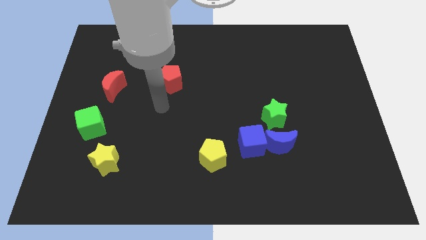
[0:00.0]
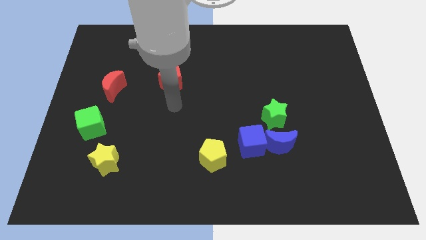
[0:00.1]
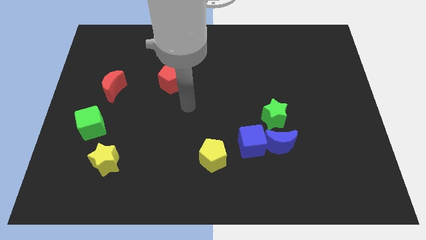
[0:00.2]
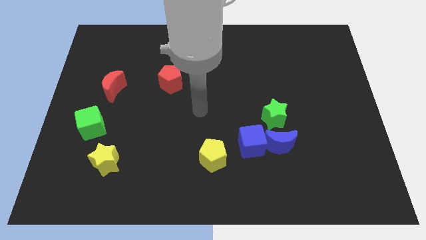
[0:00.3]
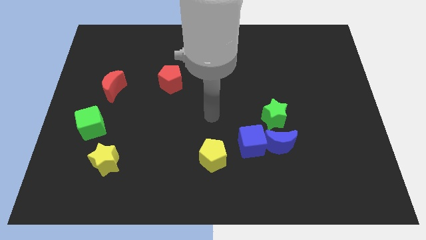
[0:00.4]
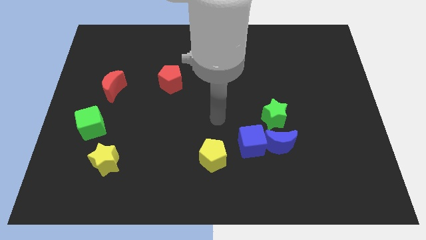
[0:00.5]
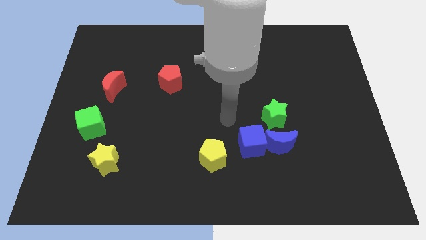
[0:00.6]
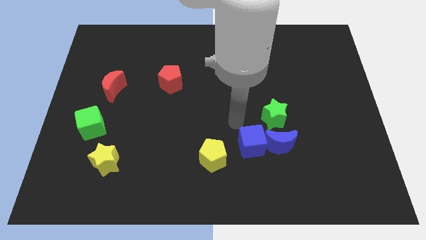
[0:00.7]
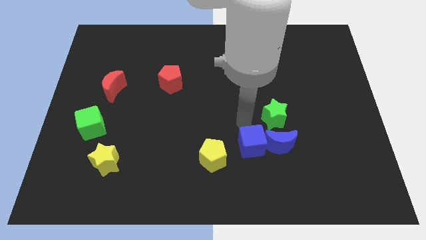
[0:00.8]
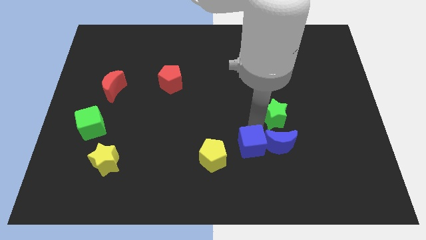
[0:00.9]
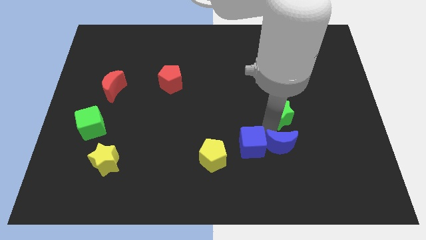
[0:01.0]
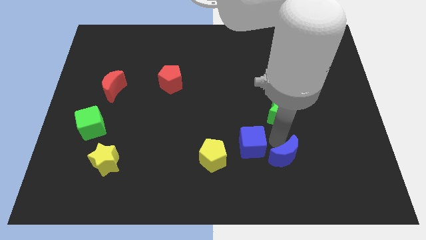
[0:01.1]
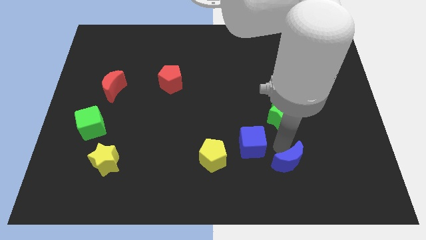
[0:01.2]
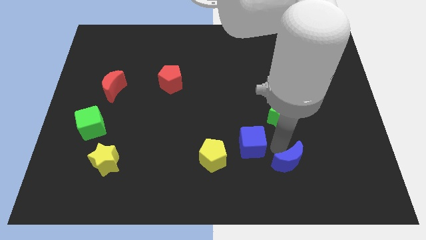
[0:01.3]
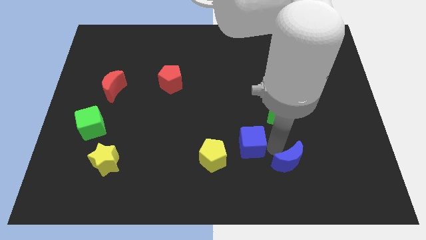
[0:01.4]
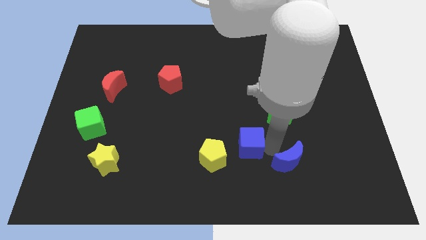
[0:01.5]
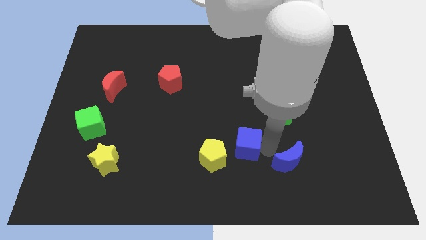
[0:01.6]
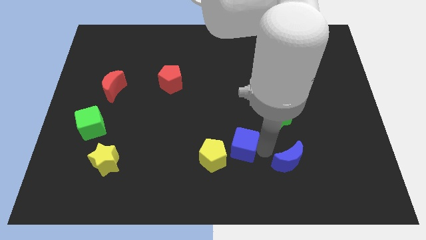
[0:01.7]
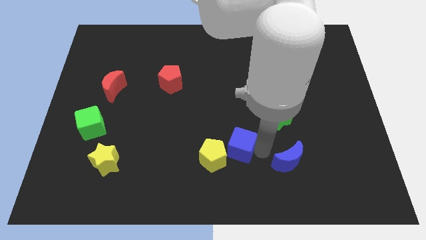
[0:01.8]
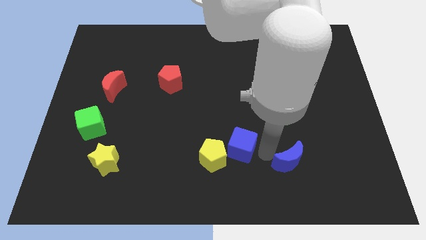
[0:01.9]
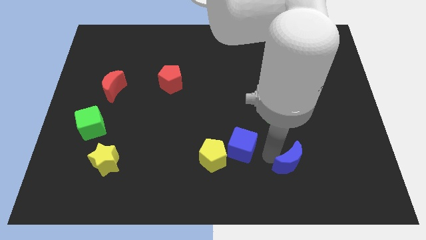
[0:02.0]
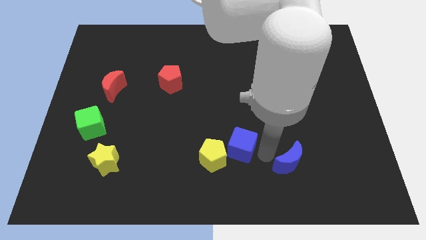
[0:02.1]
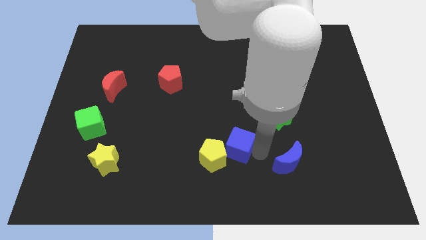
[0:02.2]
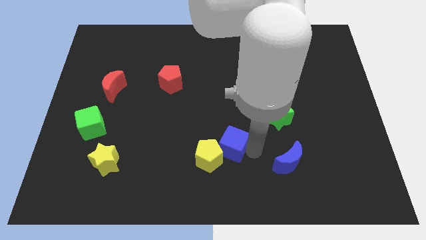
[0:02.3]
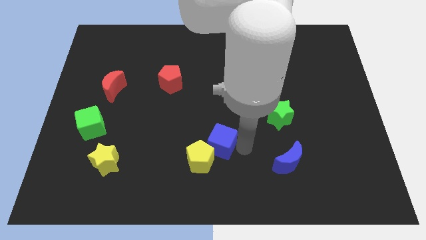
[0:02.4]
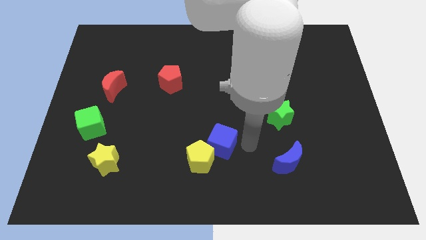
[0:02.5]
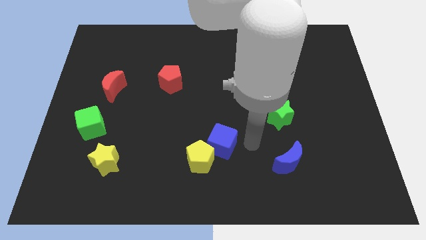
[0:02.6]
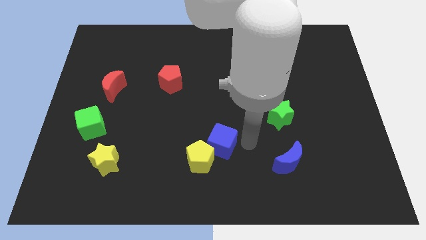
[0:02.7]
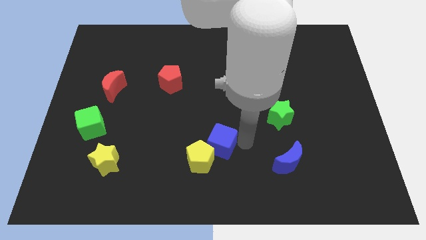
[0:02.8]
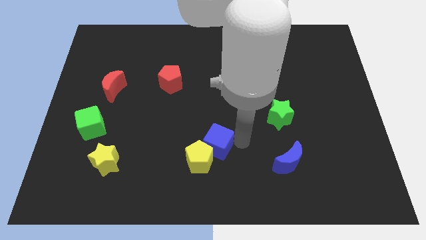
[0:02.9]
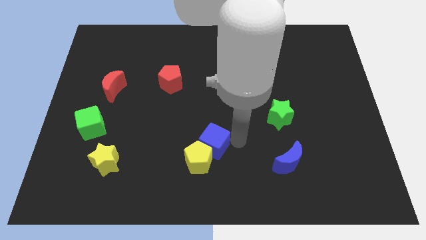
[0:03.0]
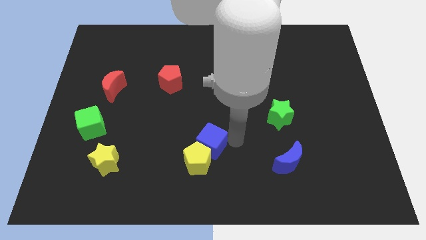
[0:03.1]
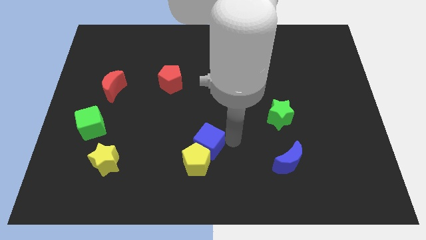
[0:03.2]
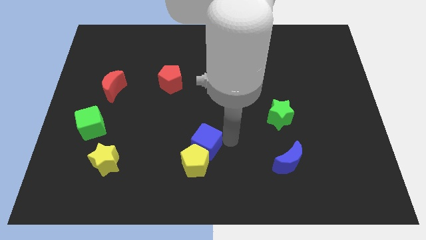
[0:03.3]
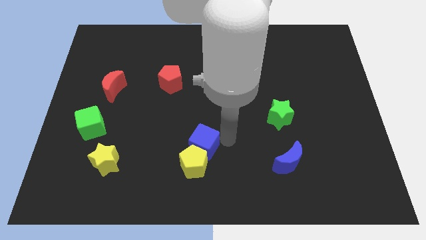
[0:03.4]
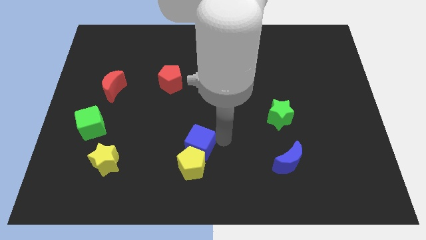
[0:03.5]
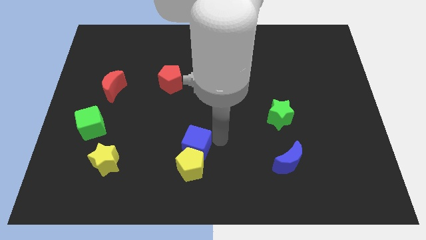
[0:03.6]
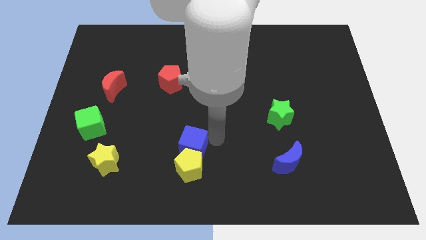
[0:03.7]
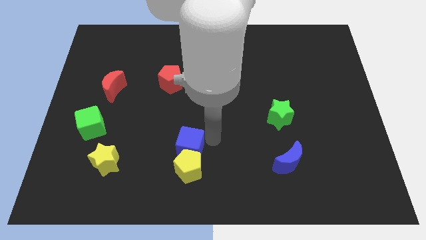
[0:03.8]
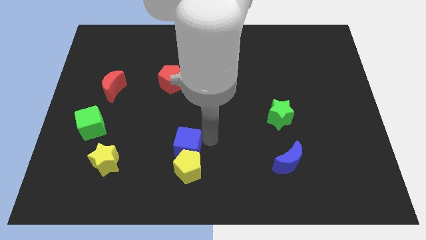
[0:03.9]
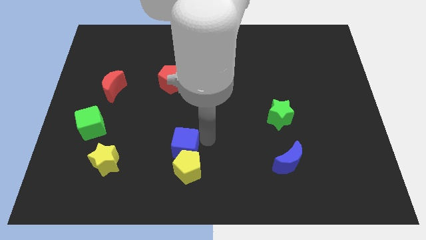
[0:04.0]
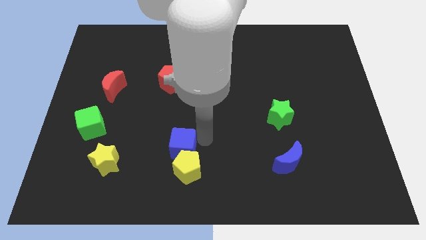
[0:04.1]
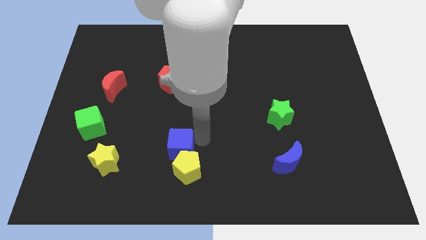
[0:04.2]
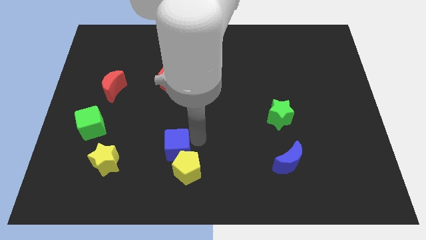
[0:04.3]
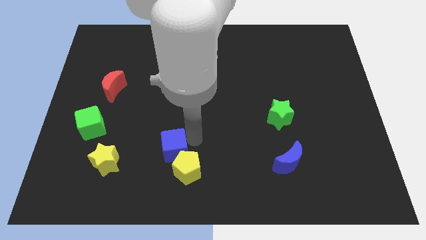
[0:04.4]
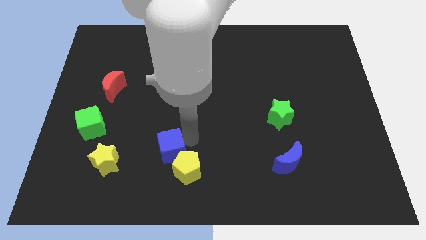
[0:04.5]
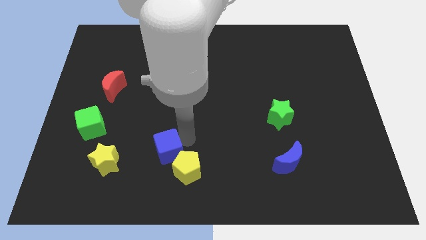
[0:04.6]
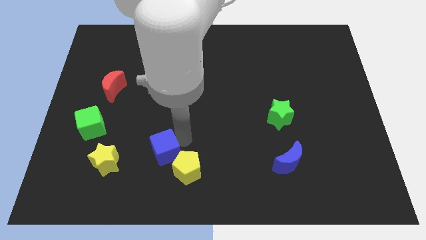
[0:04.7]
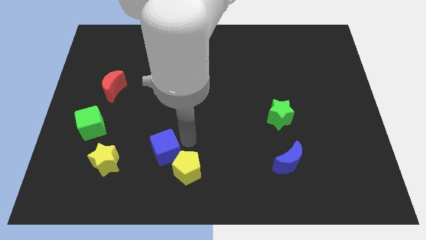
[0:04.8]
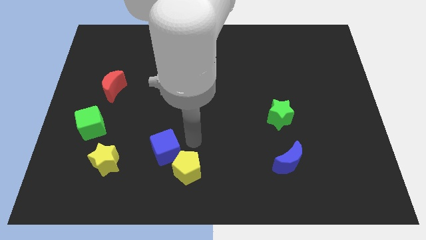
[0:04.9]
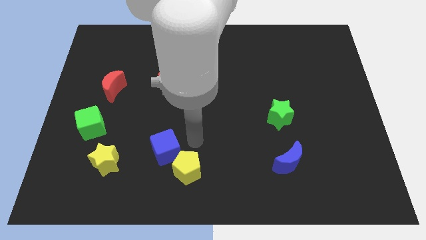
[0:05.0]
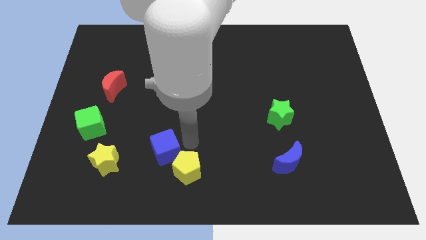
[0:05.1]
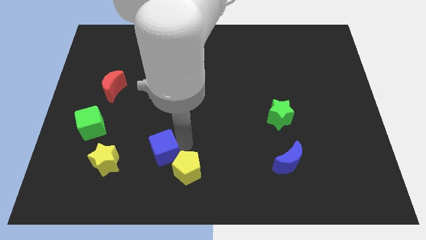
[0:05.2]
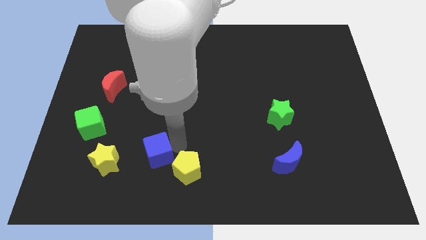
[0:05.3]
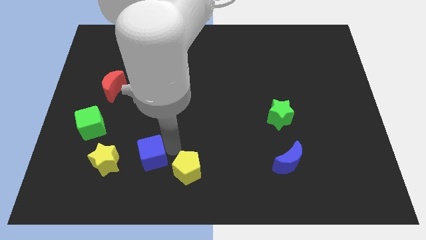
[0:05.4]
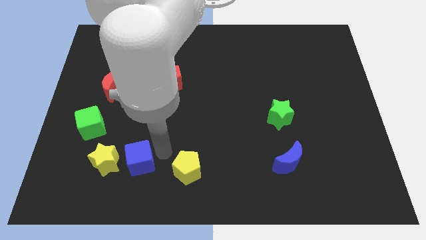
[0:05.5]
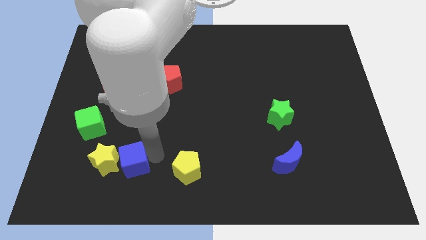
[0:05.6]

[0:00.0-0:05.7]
push the blue cube to the yellow star

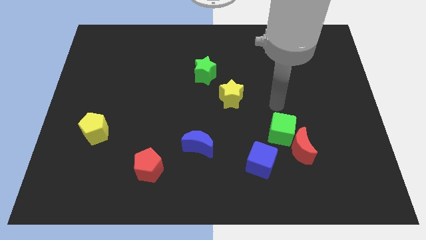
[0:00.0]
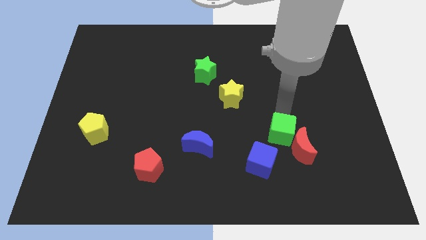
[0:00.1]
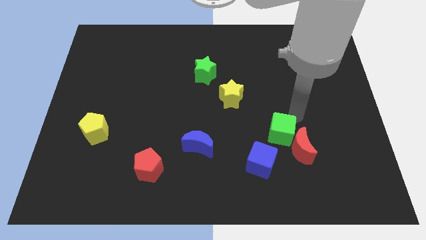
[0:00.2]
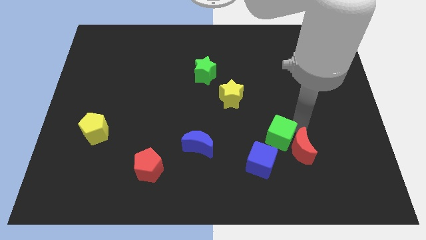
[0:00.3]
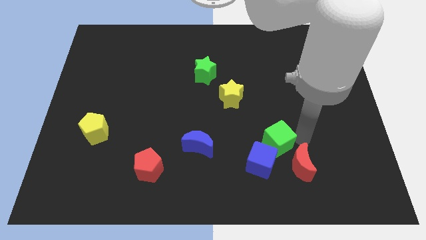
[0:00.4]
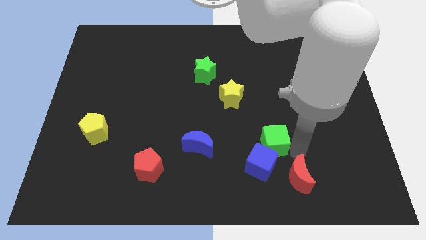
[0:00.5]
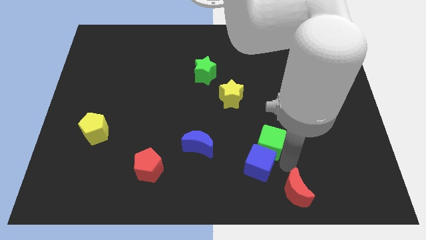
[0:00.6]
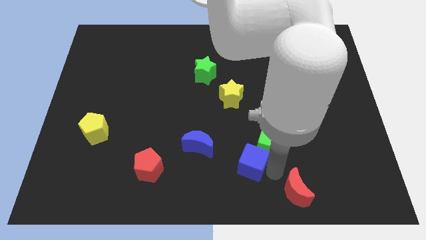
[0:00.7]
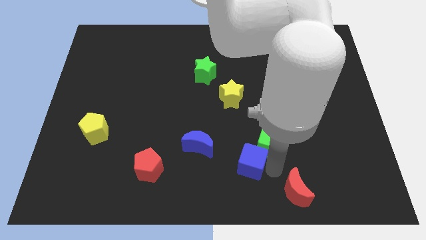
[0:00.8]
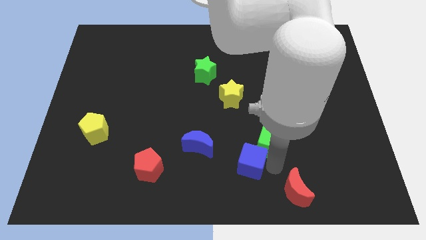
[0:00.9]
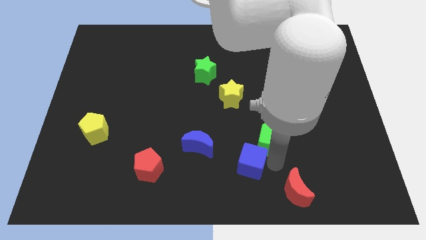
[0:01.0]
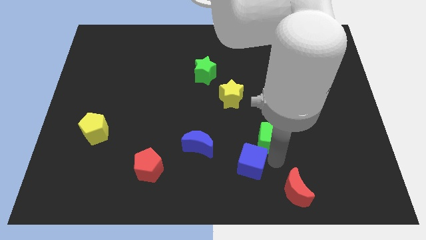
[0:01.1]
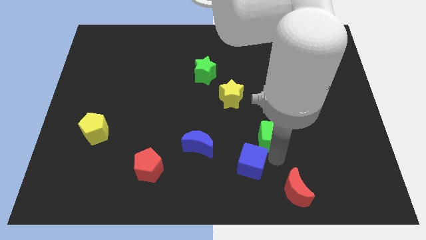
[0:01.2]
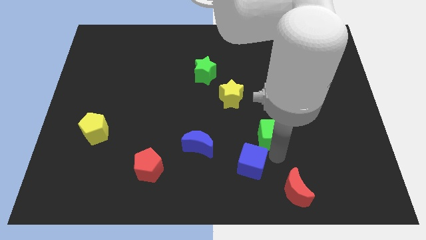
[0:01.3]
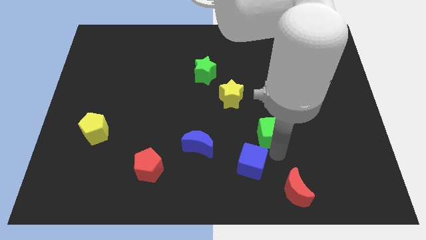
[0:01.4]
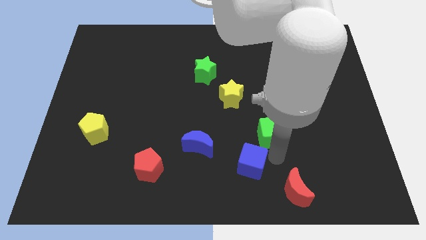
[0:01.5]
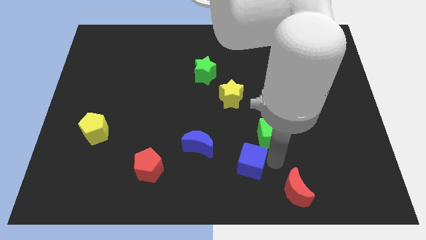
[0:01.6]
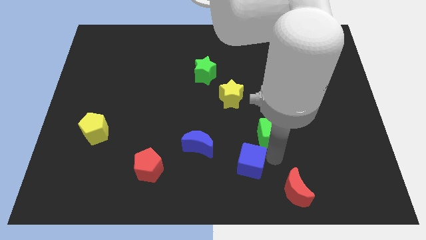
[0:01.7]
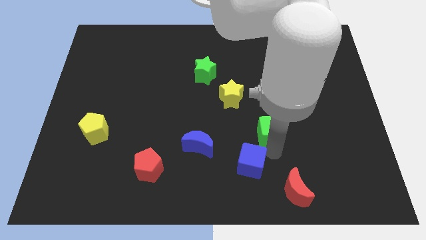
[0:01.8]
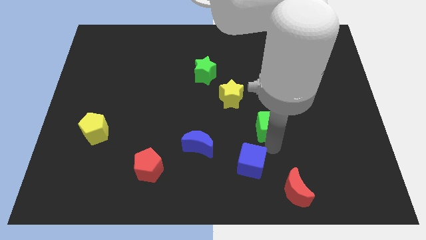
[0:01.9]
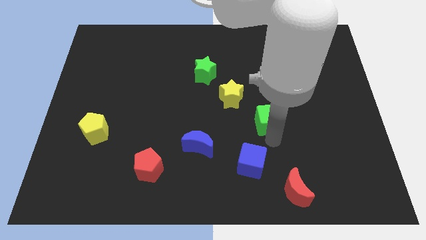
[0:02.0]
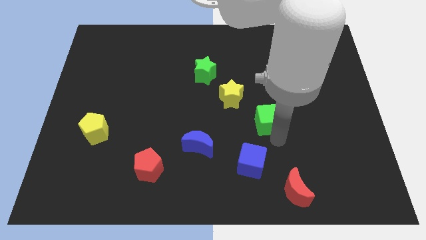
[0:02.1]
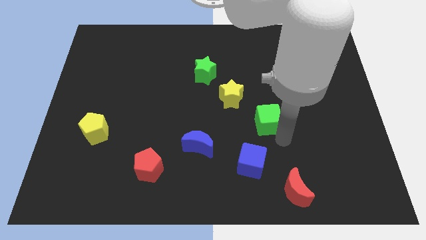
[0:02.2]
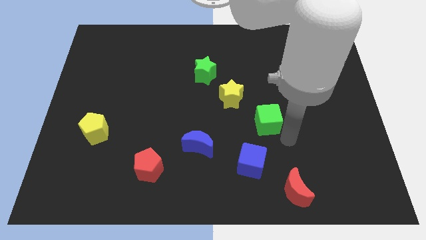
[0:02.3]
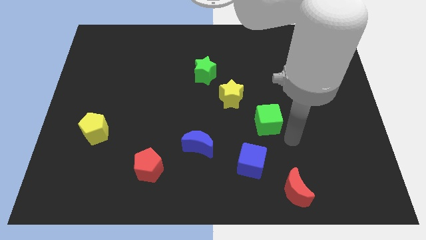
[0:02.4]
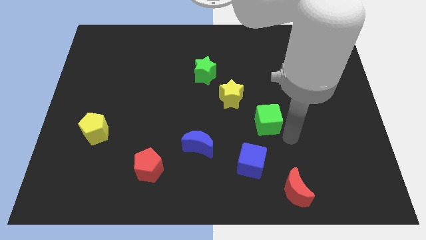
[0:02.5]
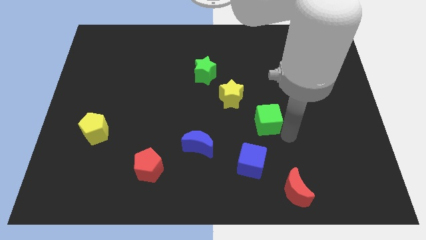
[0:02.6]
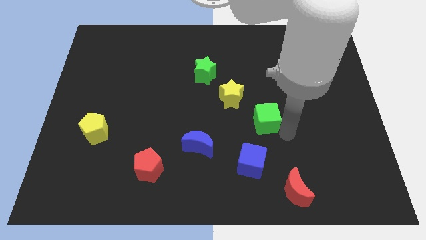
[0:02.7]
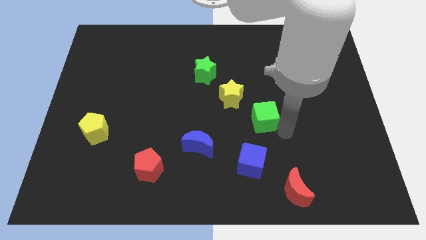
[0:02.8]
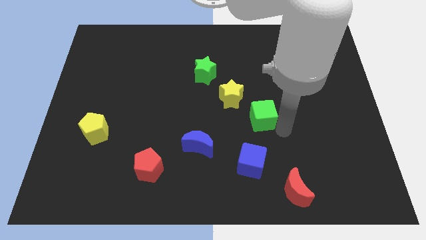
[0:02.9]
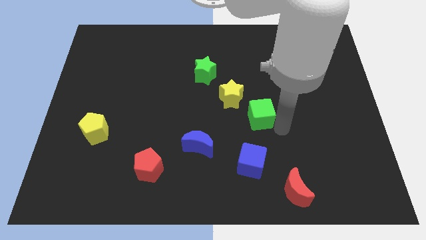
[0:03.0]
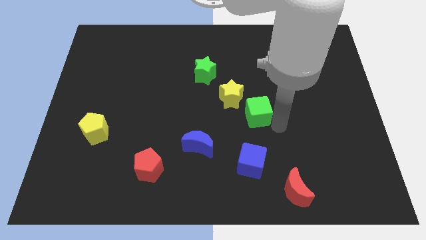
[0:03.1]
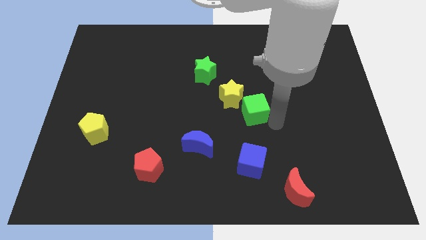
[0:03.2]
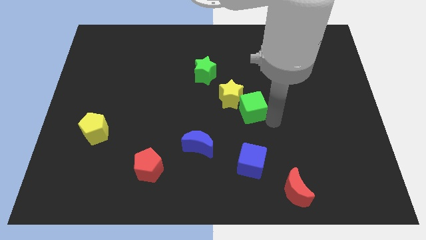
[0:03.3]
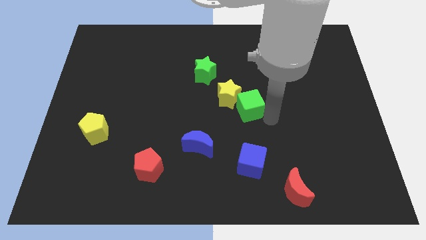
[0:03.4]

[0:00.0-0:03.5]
move the green cube towards the yellow star
